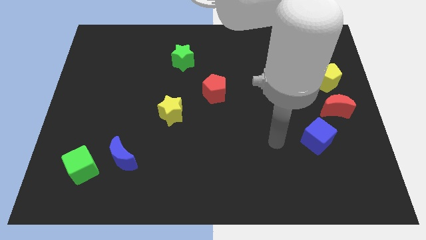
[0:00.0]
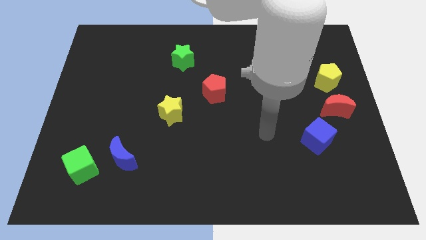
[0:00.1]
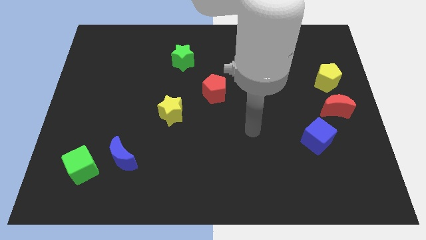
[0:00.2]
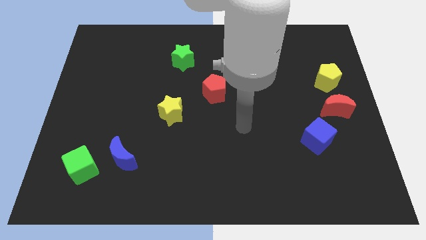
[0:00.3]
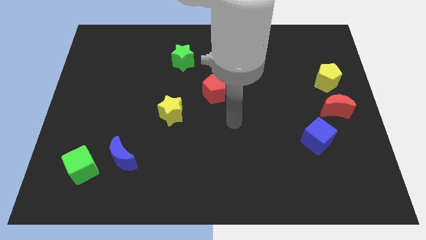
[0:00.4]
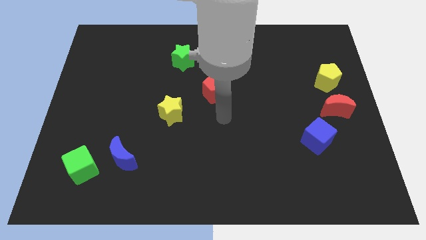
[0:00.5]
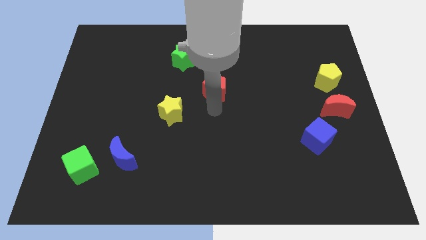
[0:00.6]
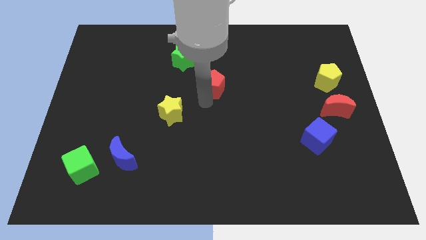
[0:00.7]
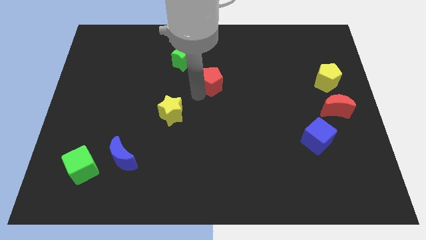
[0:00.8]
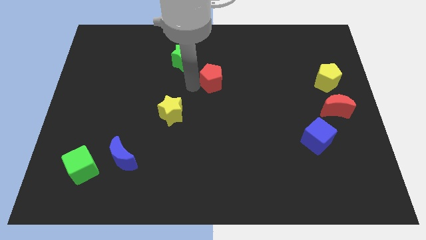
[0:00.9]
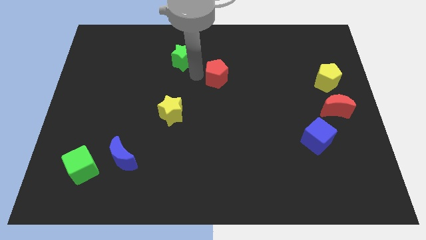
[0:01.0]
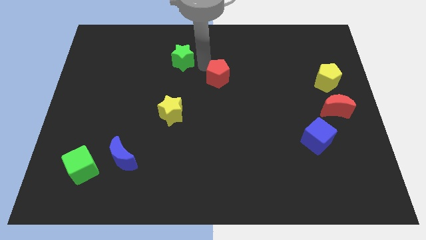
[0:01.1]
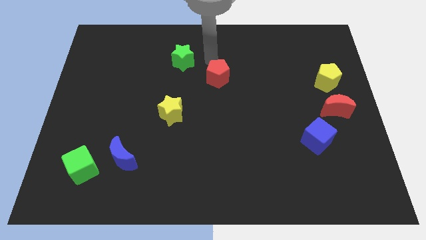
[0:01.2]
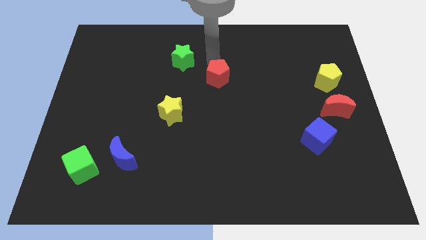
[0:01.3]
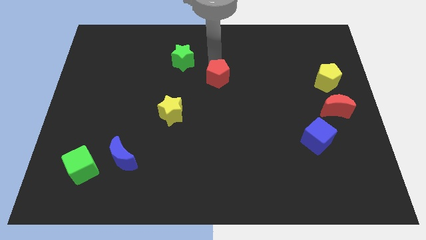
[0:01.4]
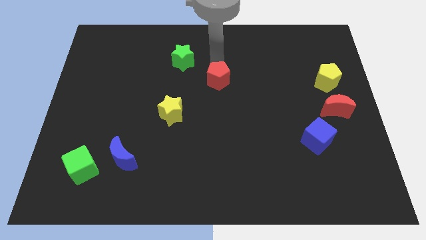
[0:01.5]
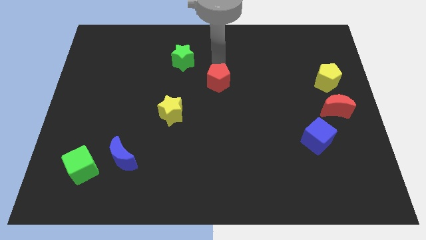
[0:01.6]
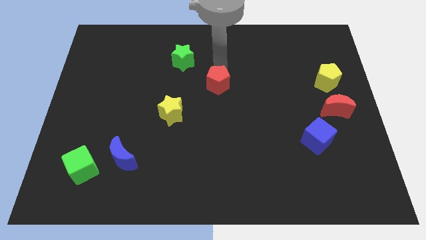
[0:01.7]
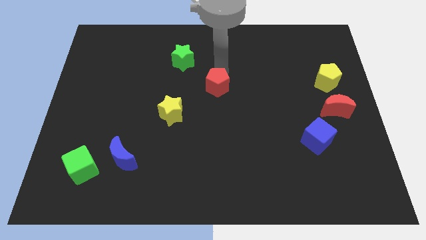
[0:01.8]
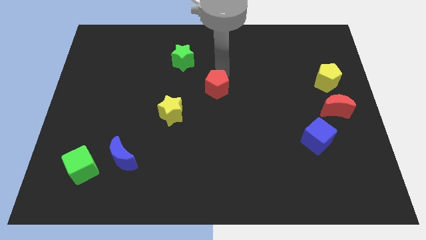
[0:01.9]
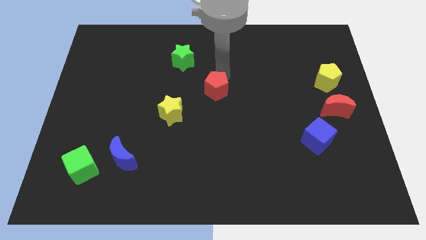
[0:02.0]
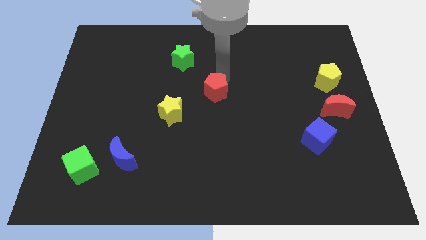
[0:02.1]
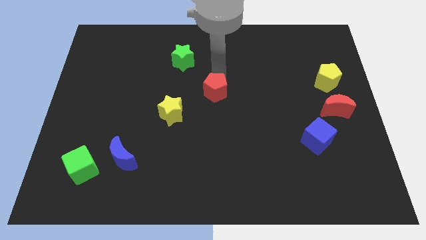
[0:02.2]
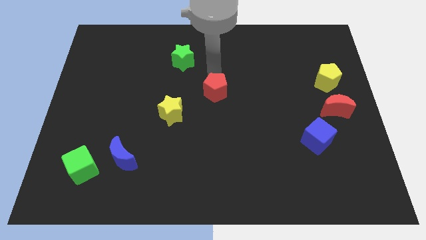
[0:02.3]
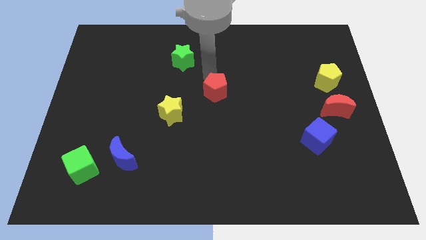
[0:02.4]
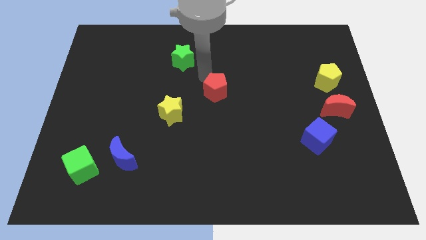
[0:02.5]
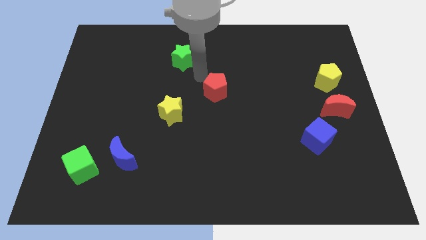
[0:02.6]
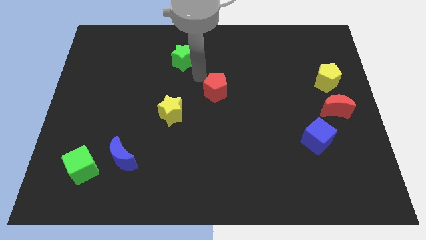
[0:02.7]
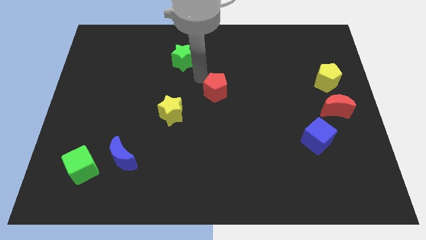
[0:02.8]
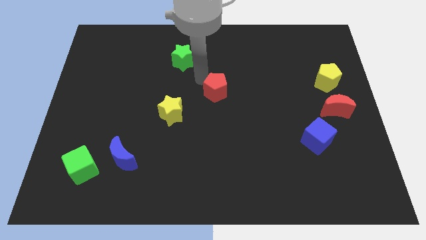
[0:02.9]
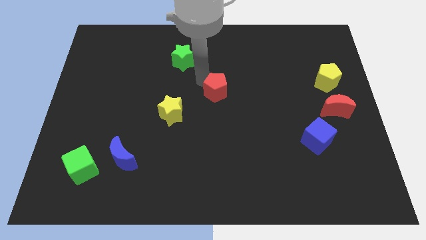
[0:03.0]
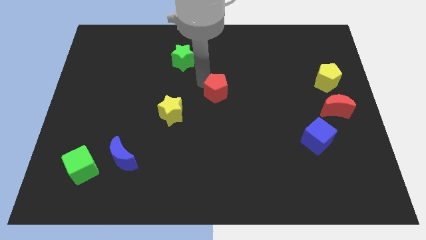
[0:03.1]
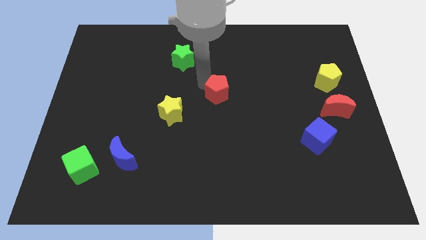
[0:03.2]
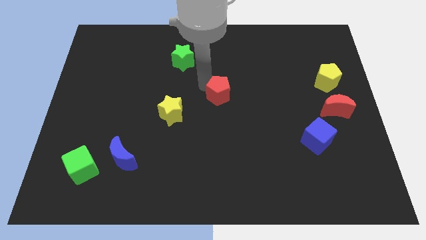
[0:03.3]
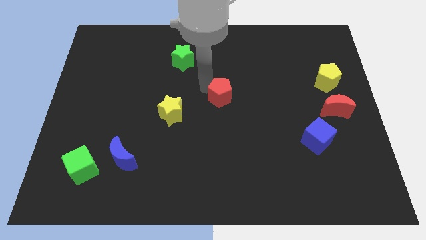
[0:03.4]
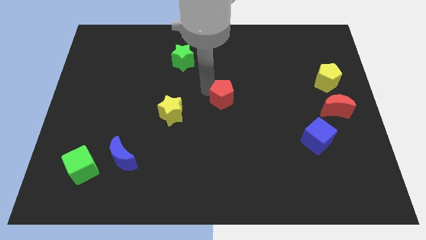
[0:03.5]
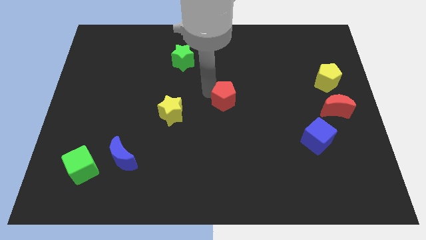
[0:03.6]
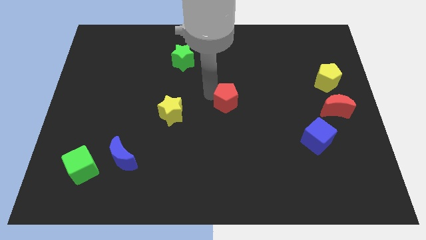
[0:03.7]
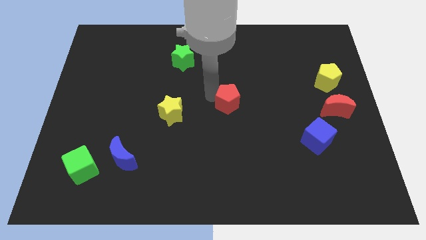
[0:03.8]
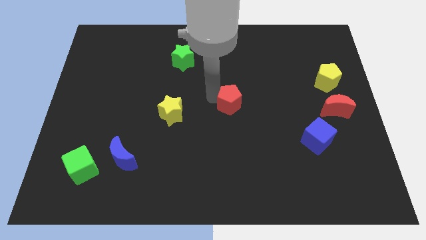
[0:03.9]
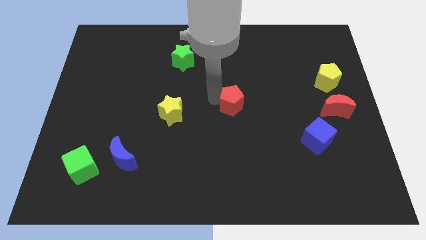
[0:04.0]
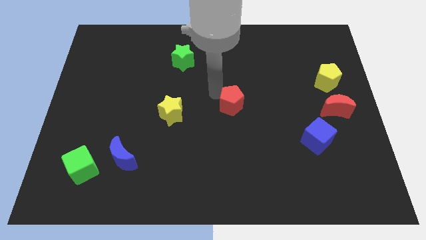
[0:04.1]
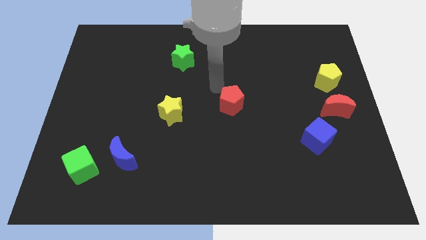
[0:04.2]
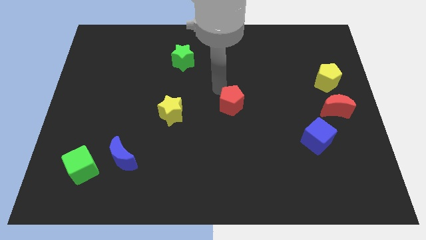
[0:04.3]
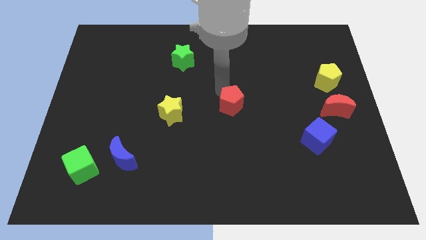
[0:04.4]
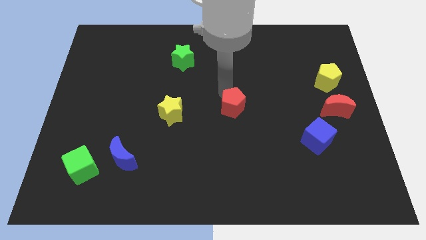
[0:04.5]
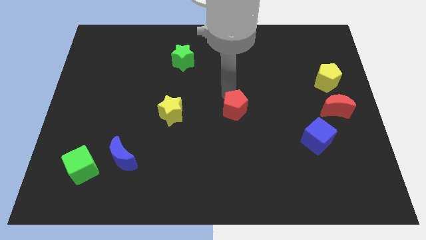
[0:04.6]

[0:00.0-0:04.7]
slightly slide the red pentagon diagonally down and right

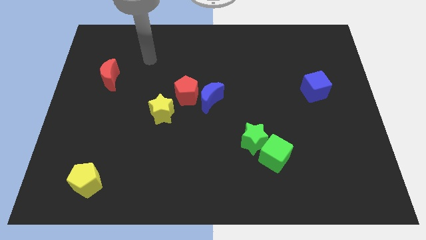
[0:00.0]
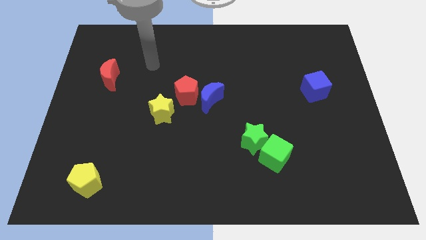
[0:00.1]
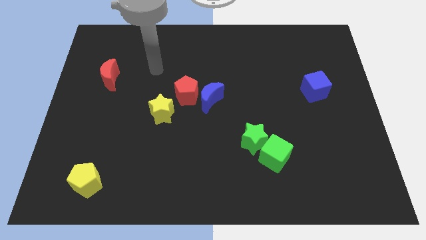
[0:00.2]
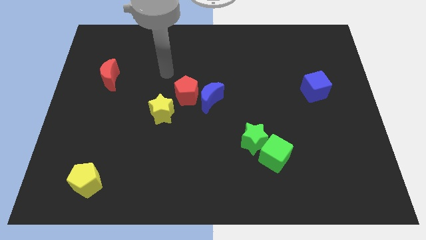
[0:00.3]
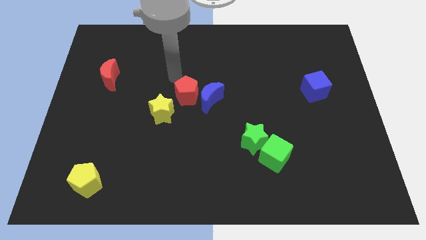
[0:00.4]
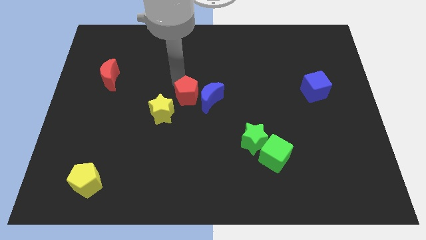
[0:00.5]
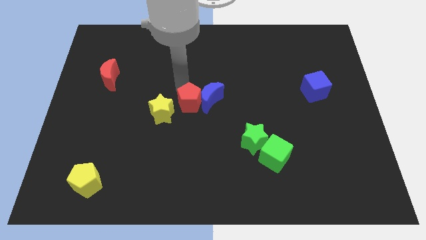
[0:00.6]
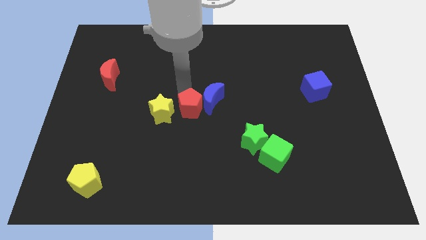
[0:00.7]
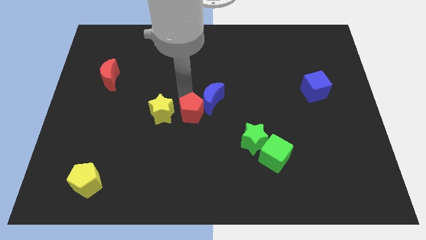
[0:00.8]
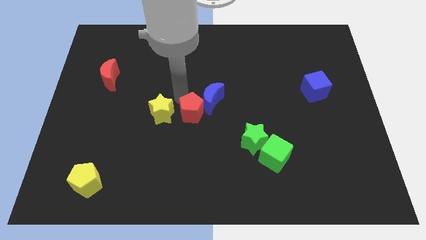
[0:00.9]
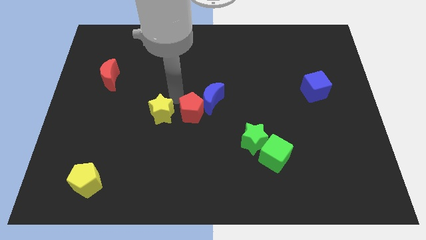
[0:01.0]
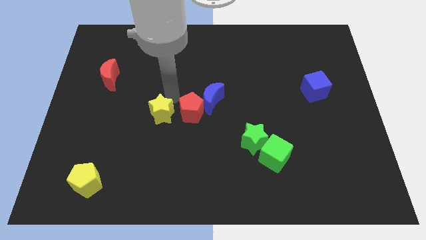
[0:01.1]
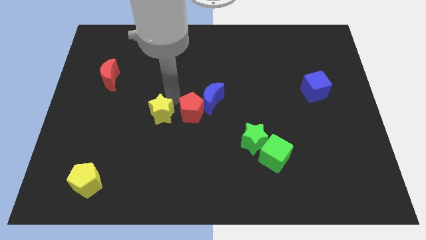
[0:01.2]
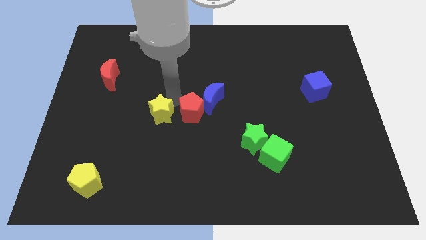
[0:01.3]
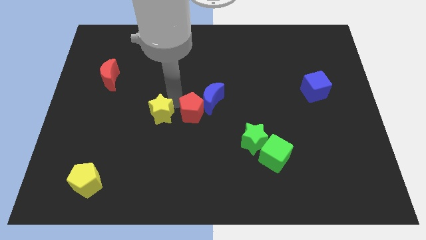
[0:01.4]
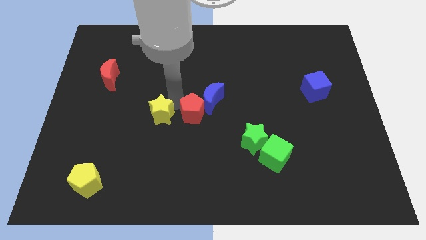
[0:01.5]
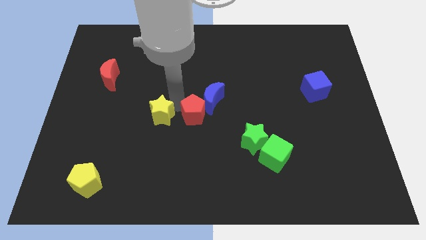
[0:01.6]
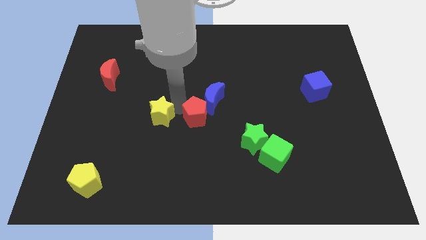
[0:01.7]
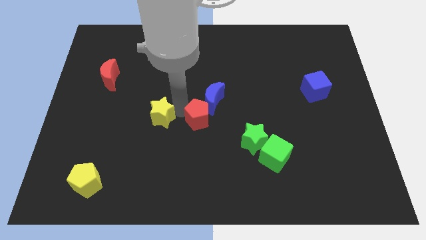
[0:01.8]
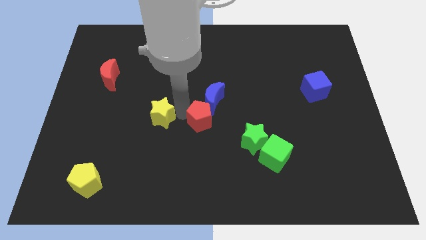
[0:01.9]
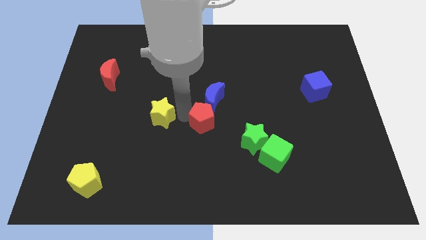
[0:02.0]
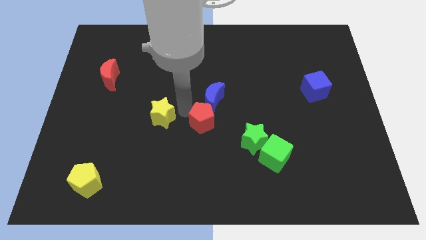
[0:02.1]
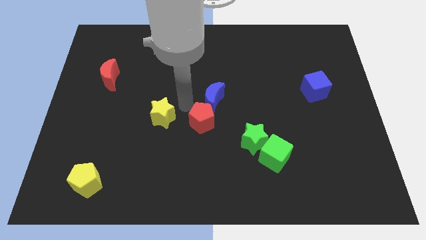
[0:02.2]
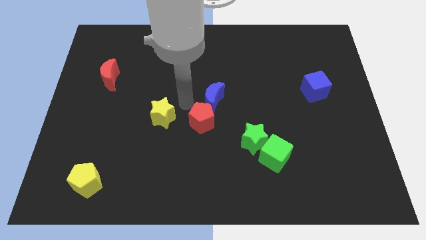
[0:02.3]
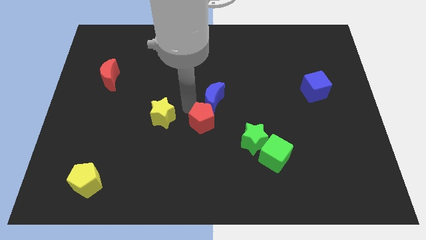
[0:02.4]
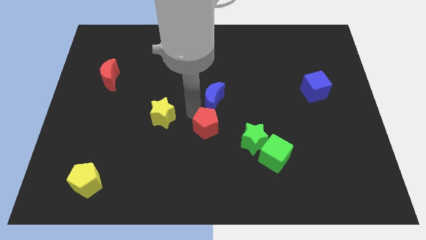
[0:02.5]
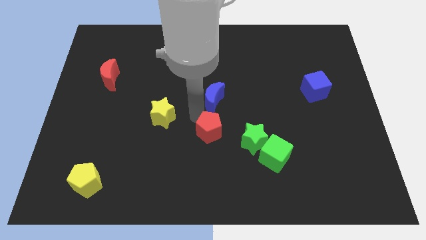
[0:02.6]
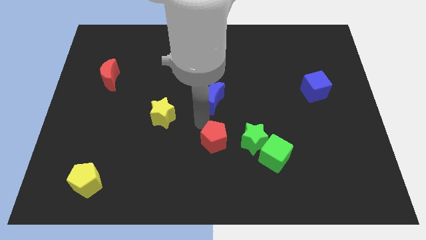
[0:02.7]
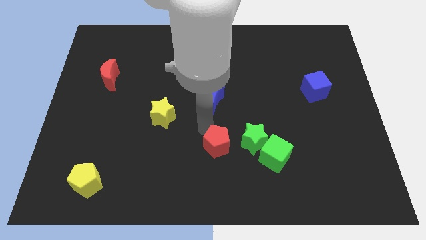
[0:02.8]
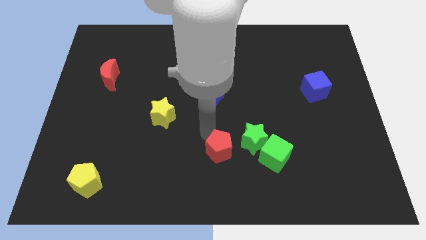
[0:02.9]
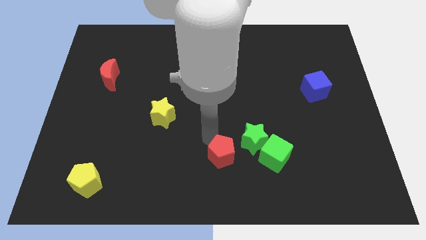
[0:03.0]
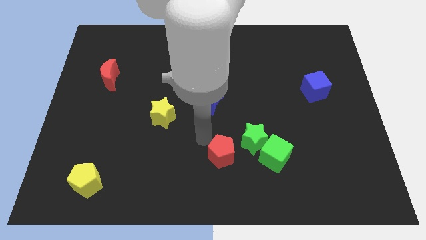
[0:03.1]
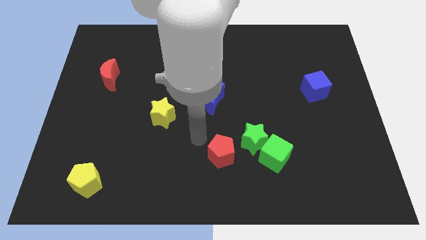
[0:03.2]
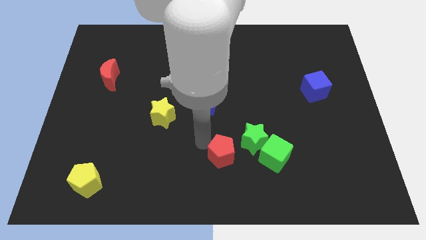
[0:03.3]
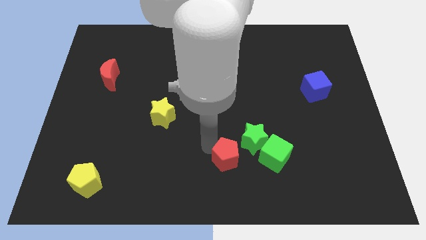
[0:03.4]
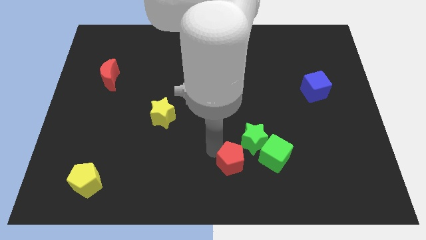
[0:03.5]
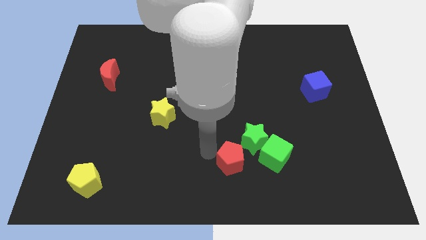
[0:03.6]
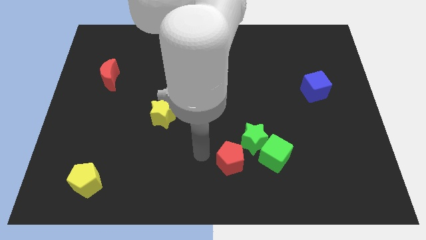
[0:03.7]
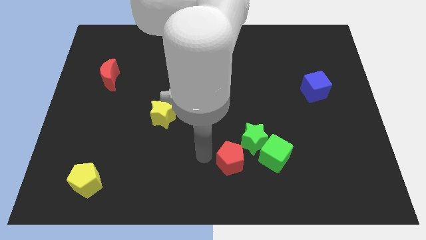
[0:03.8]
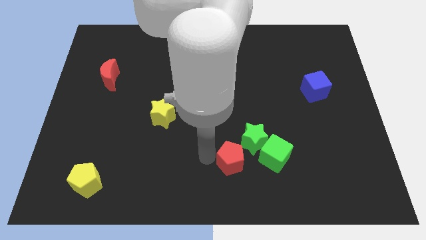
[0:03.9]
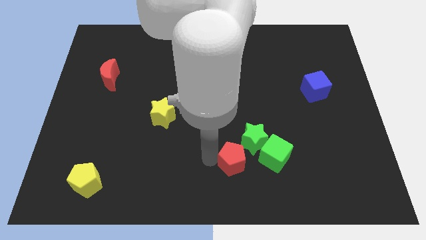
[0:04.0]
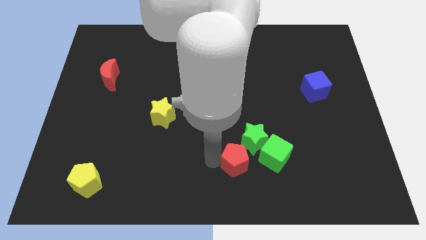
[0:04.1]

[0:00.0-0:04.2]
move the red pentagon downwards and then to the right
